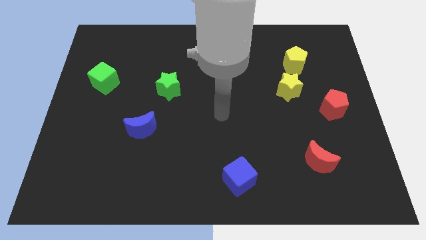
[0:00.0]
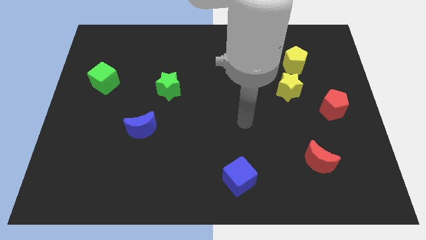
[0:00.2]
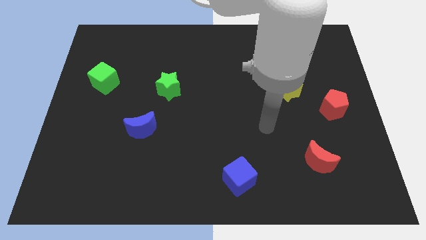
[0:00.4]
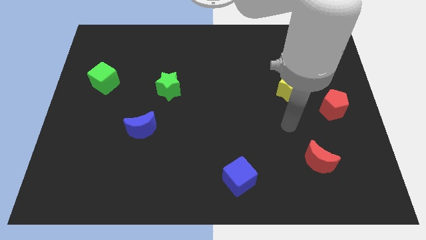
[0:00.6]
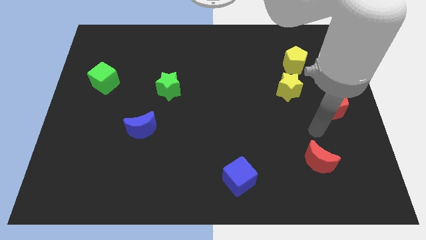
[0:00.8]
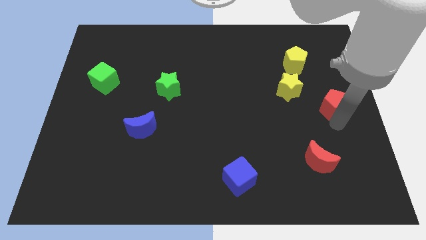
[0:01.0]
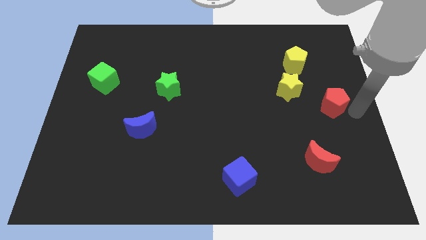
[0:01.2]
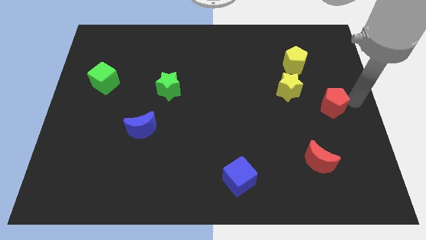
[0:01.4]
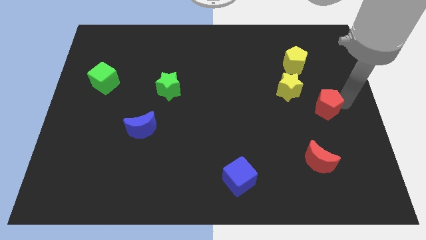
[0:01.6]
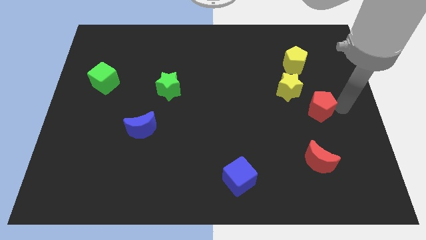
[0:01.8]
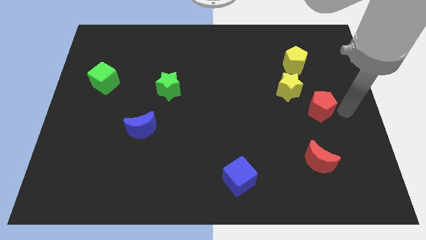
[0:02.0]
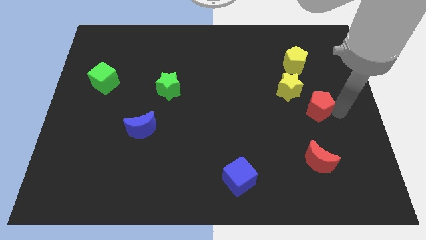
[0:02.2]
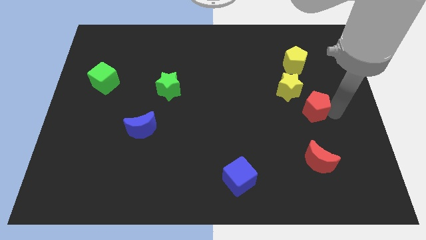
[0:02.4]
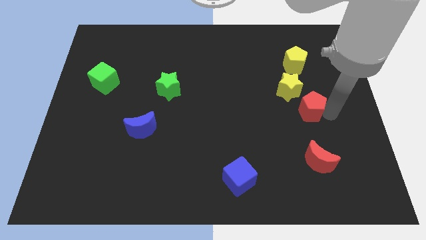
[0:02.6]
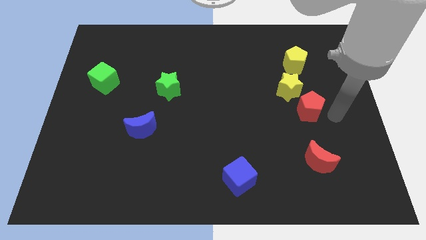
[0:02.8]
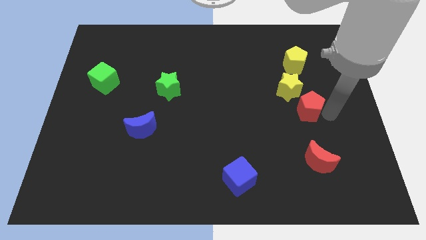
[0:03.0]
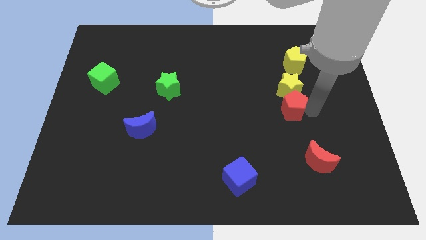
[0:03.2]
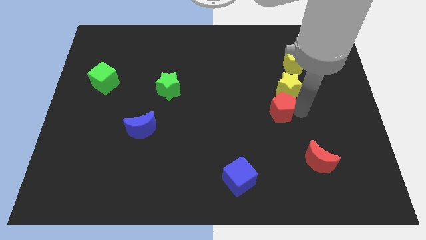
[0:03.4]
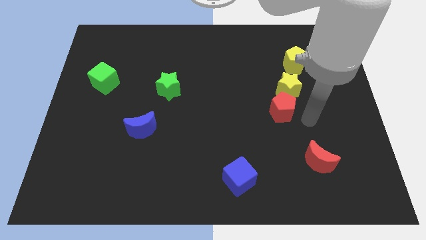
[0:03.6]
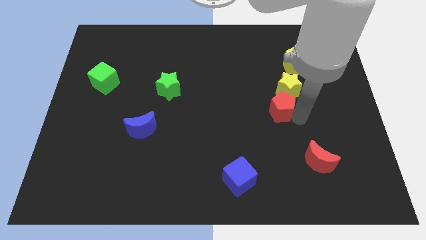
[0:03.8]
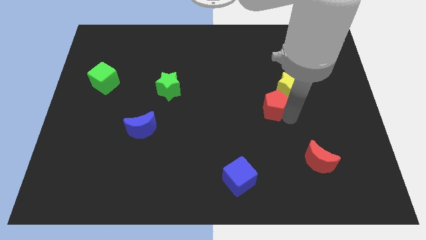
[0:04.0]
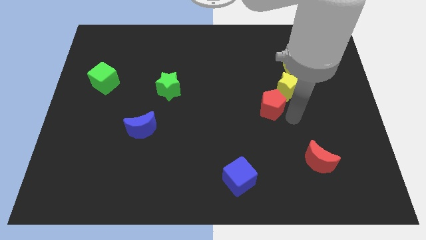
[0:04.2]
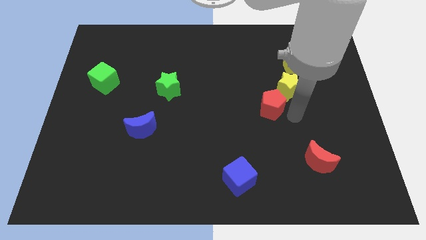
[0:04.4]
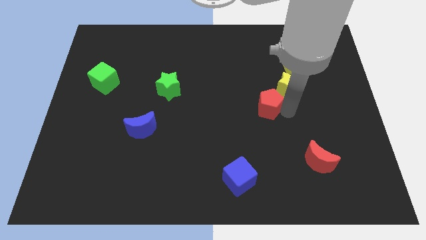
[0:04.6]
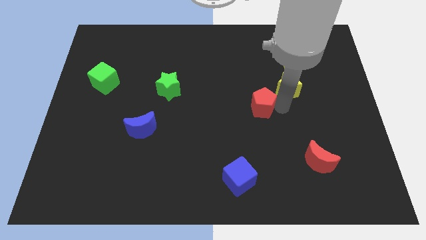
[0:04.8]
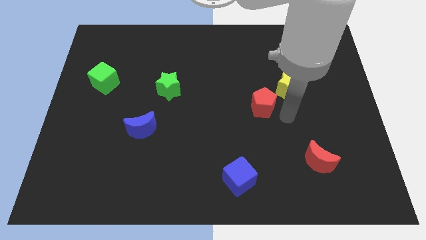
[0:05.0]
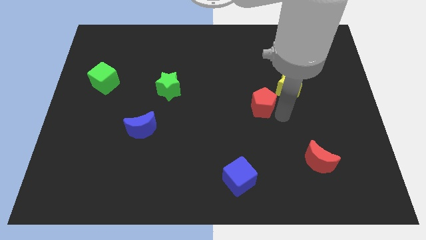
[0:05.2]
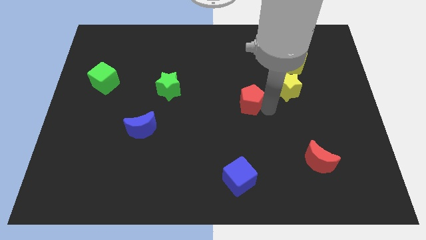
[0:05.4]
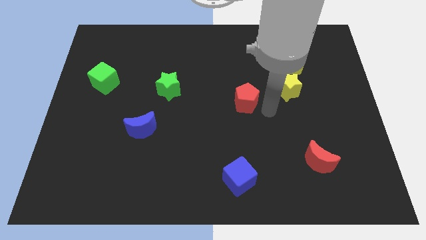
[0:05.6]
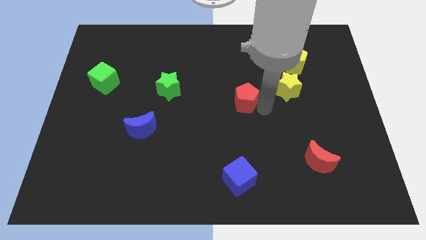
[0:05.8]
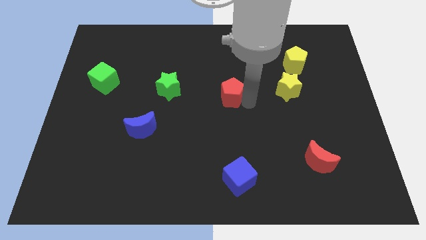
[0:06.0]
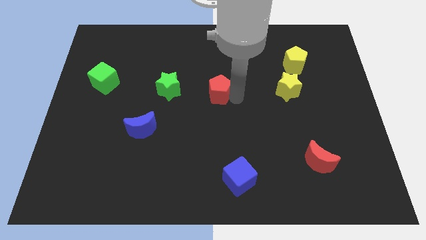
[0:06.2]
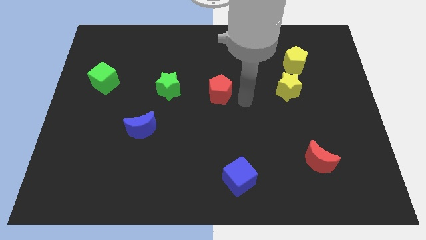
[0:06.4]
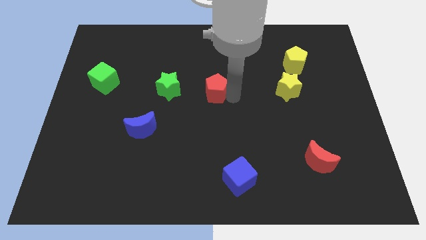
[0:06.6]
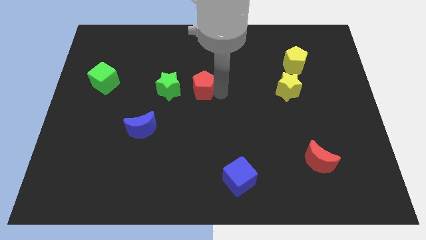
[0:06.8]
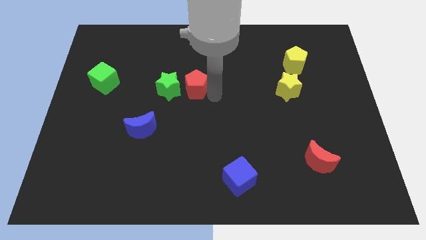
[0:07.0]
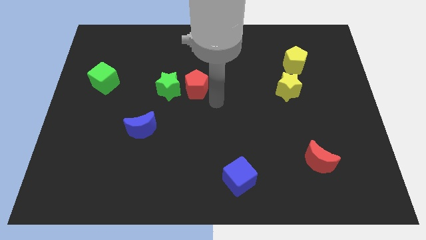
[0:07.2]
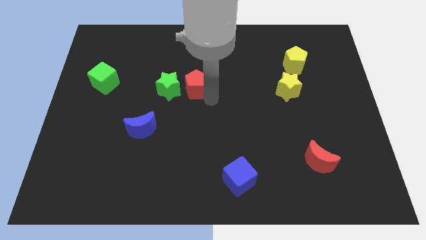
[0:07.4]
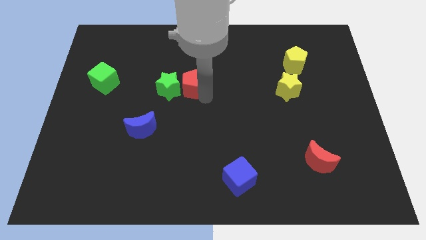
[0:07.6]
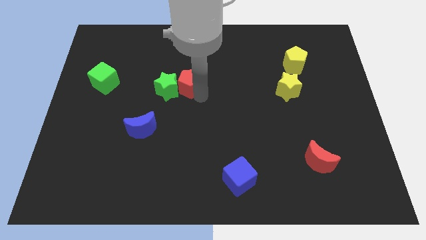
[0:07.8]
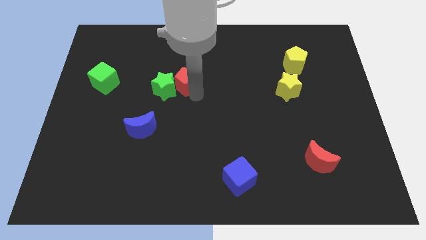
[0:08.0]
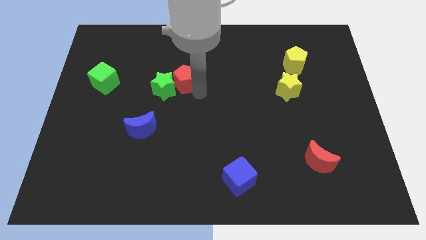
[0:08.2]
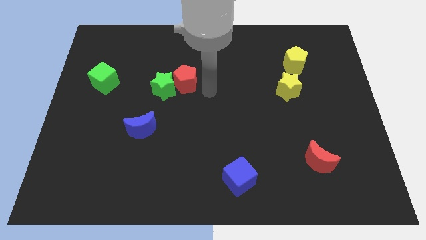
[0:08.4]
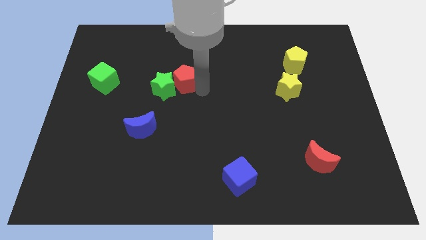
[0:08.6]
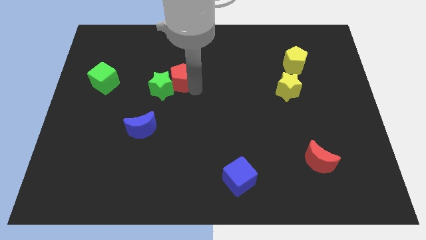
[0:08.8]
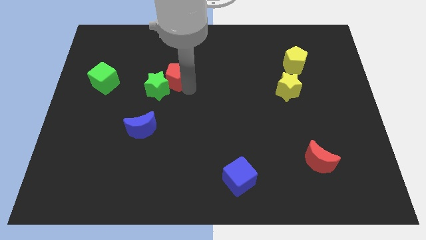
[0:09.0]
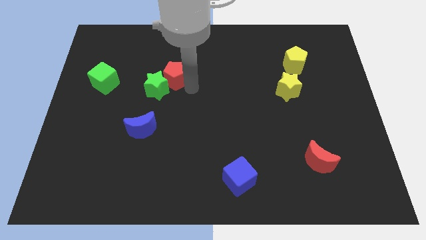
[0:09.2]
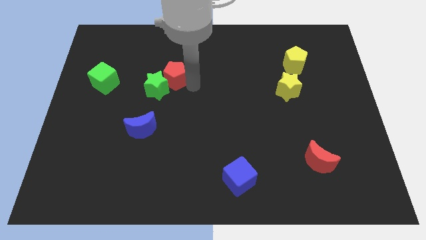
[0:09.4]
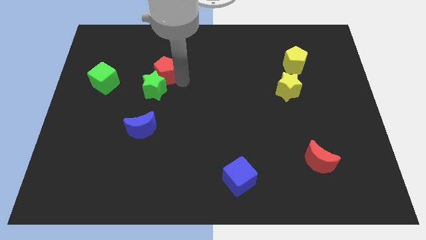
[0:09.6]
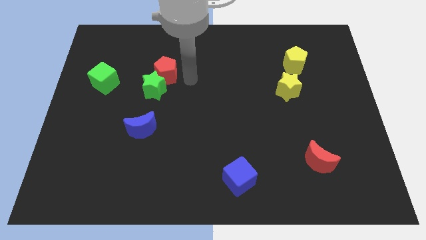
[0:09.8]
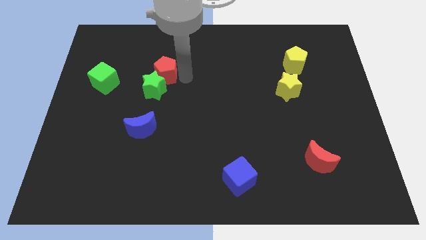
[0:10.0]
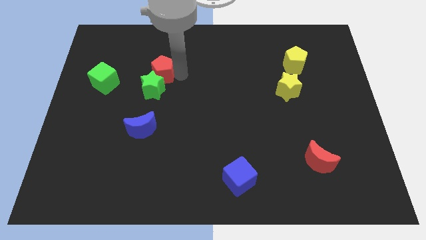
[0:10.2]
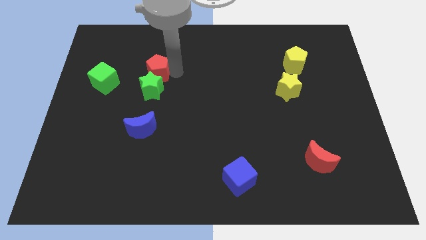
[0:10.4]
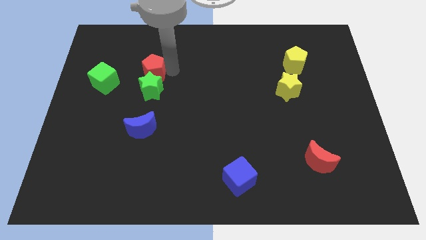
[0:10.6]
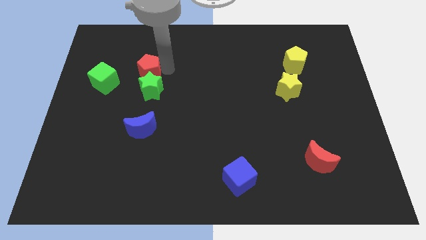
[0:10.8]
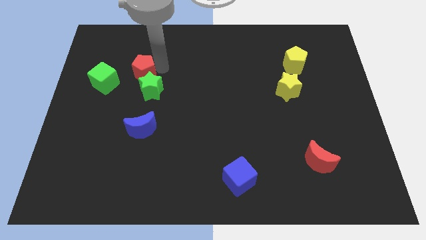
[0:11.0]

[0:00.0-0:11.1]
put the red pentagon diagonally up and to the right of the green cube

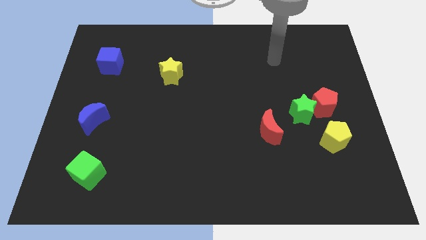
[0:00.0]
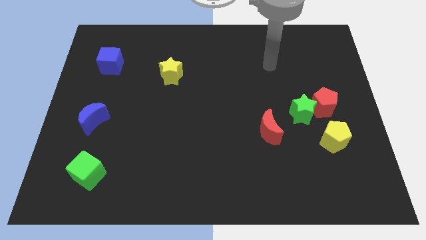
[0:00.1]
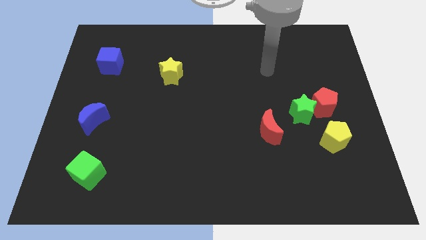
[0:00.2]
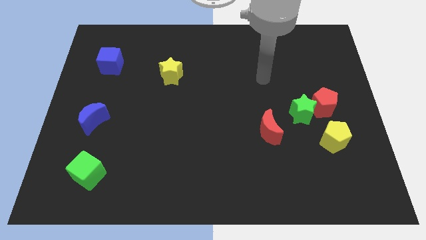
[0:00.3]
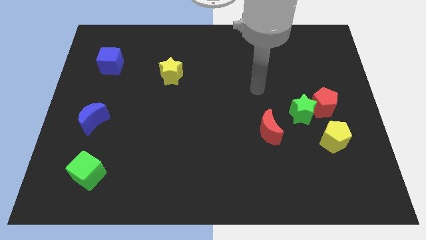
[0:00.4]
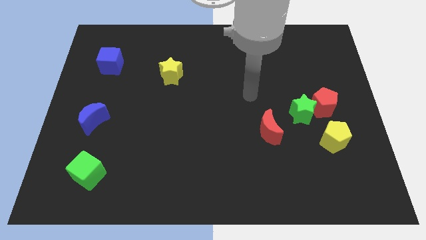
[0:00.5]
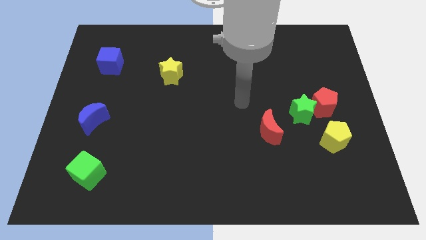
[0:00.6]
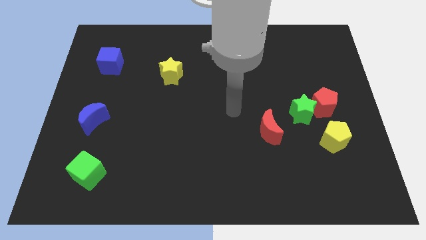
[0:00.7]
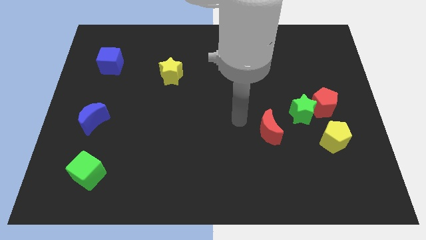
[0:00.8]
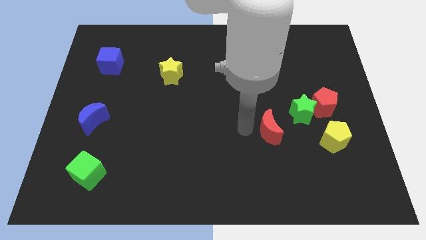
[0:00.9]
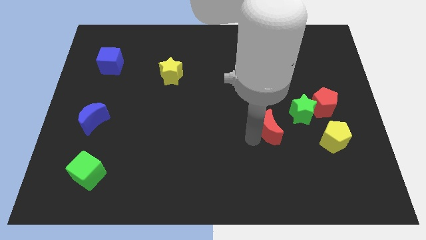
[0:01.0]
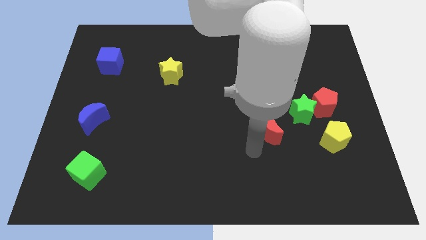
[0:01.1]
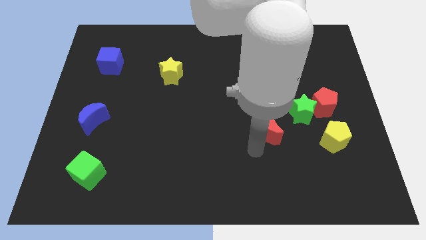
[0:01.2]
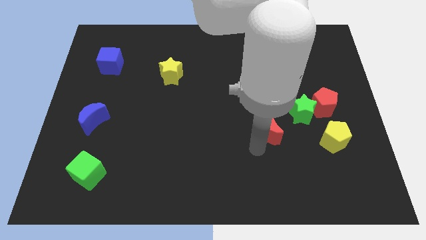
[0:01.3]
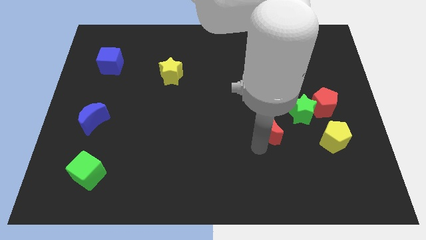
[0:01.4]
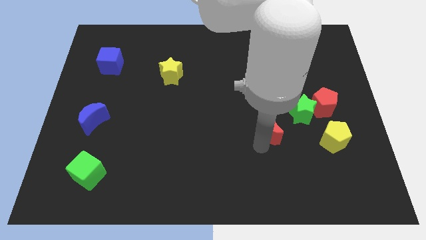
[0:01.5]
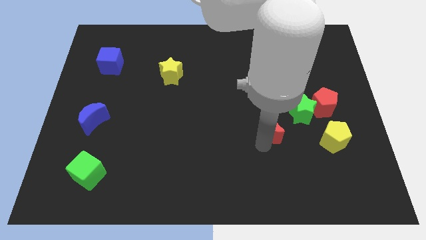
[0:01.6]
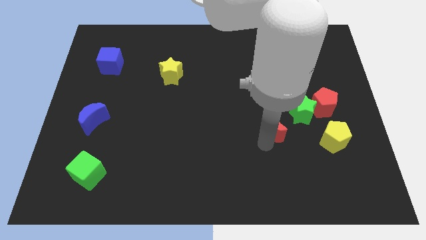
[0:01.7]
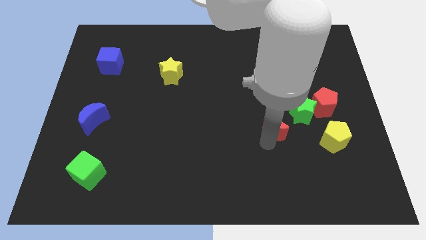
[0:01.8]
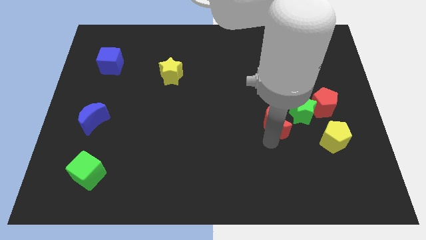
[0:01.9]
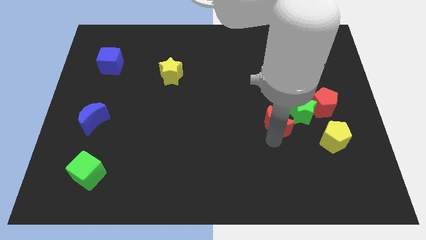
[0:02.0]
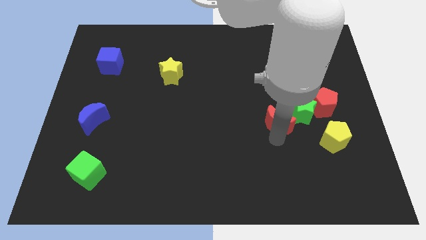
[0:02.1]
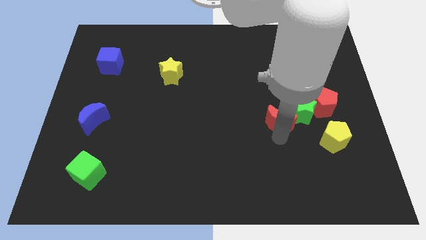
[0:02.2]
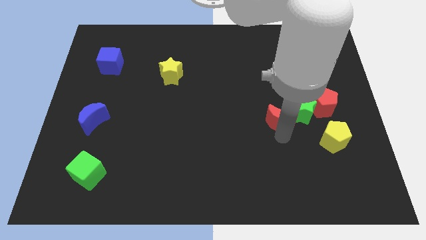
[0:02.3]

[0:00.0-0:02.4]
put the red moon to the left of the red pentagon

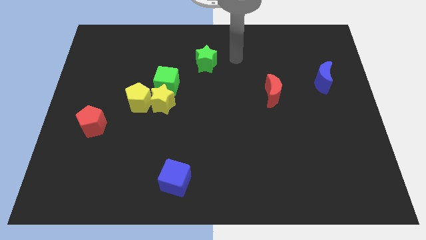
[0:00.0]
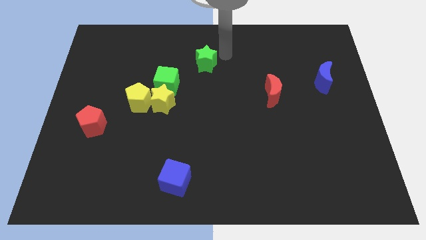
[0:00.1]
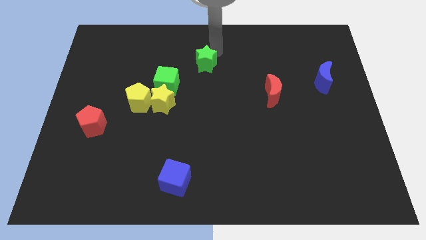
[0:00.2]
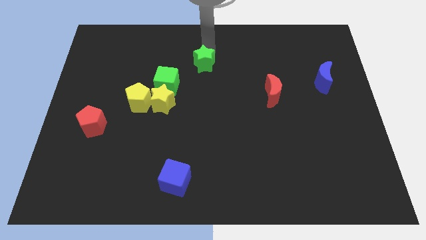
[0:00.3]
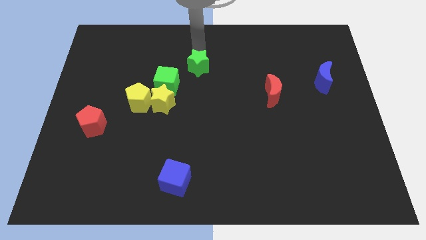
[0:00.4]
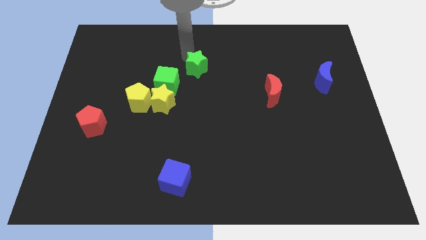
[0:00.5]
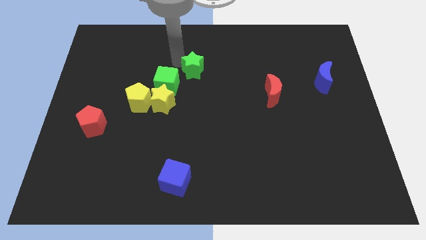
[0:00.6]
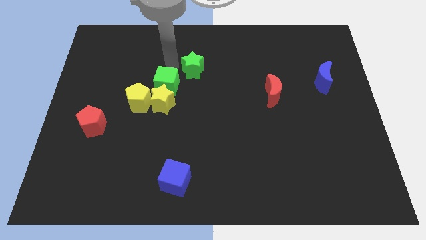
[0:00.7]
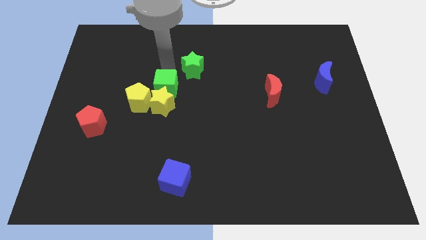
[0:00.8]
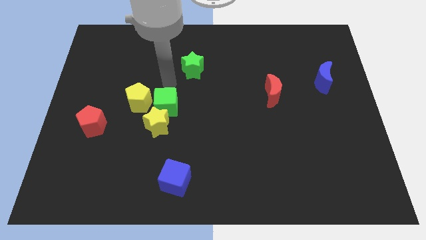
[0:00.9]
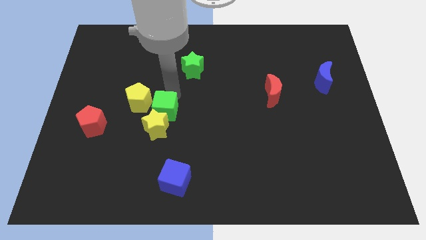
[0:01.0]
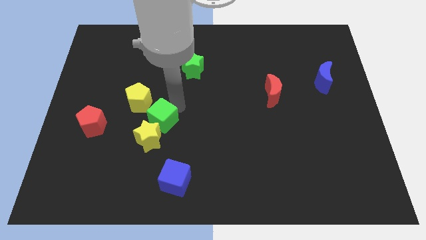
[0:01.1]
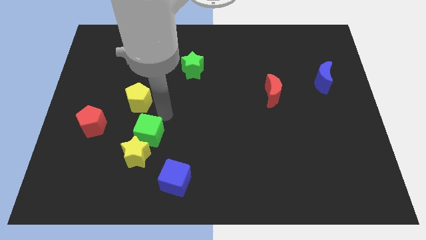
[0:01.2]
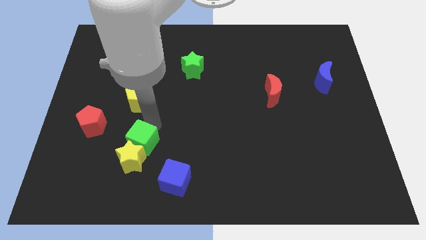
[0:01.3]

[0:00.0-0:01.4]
slide the yellow star left of the blue cube
